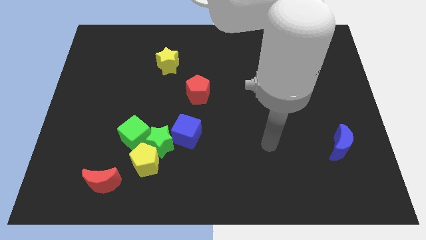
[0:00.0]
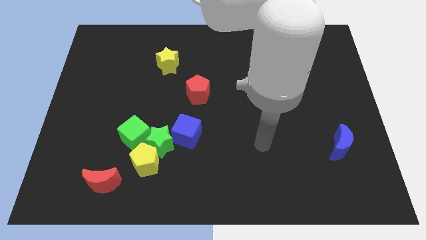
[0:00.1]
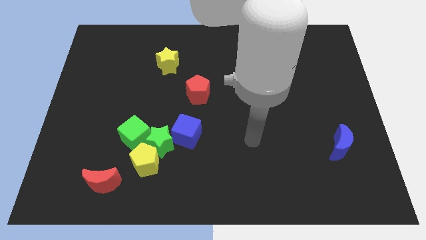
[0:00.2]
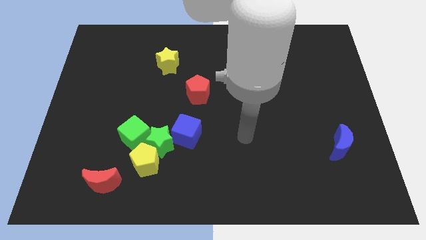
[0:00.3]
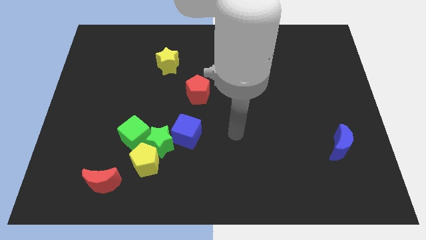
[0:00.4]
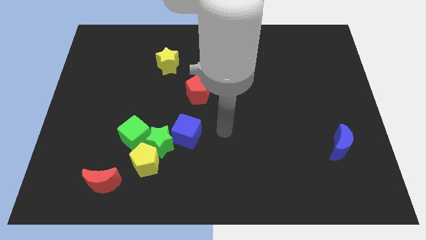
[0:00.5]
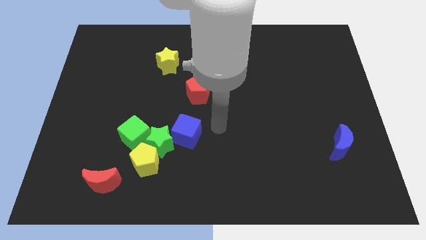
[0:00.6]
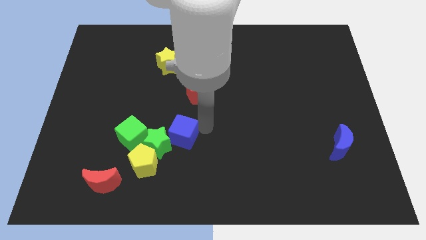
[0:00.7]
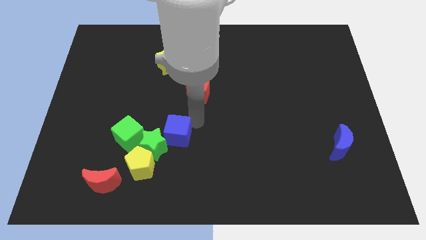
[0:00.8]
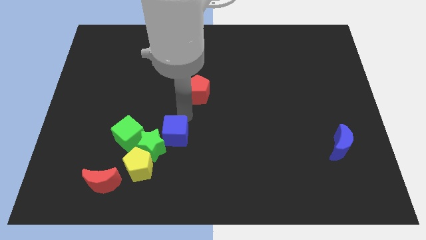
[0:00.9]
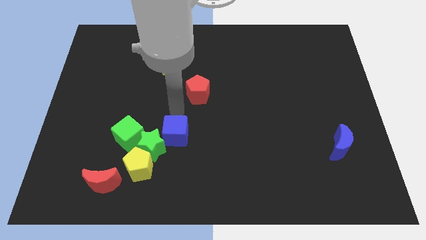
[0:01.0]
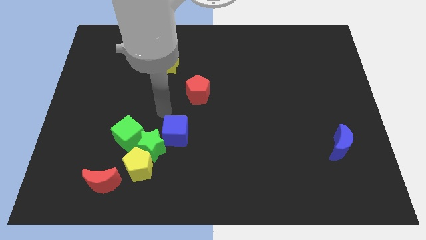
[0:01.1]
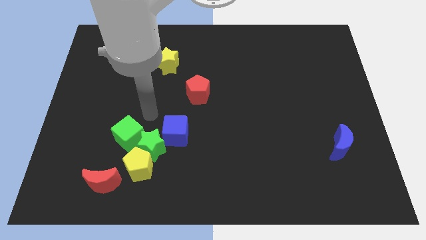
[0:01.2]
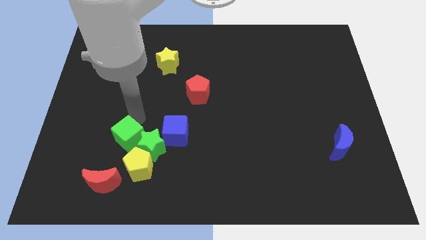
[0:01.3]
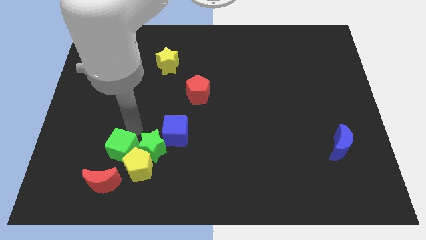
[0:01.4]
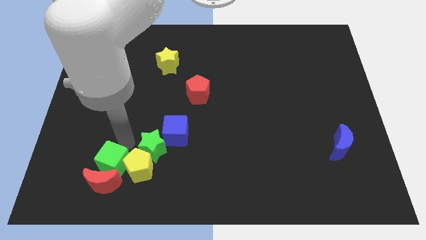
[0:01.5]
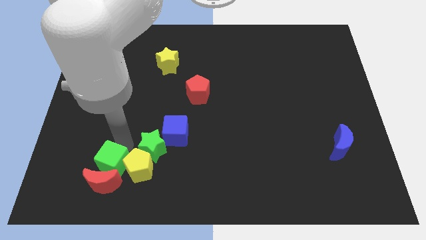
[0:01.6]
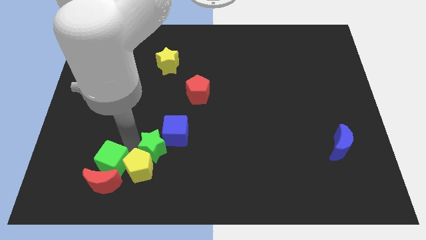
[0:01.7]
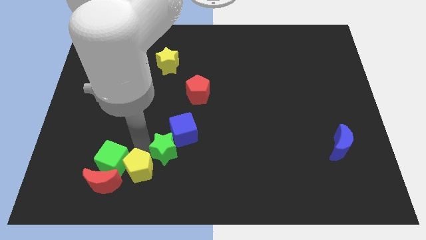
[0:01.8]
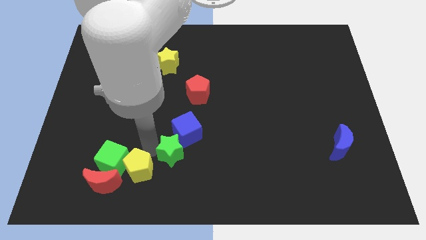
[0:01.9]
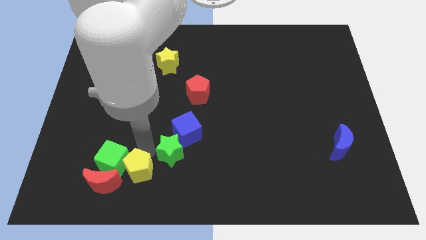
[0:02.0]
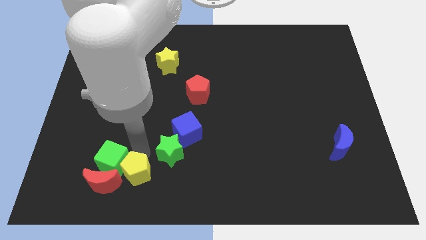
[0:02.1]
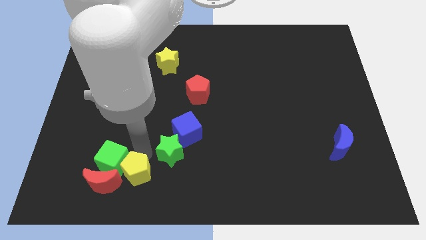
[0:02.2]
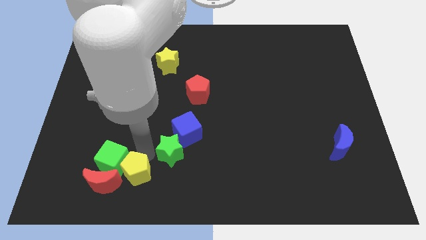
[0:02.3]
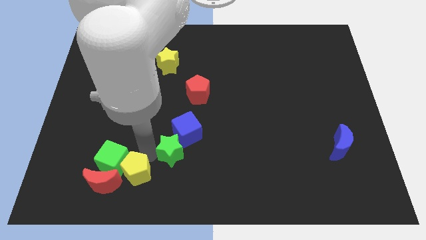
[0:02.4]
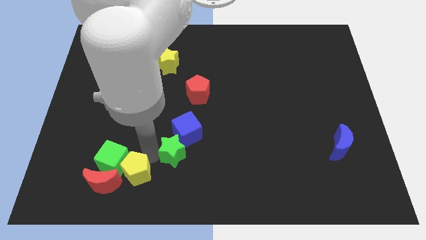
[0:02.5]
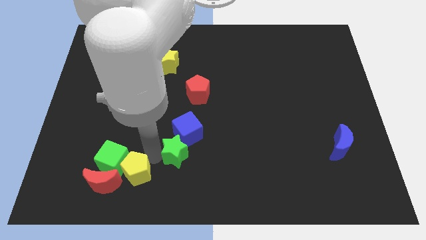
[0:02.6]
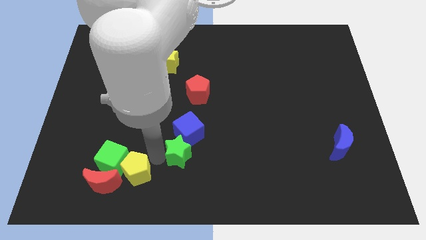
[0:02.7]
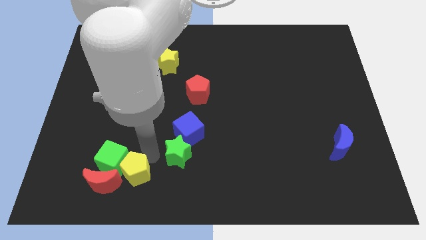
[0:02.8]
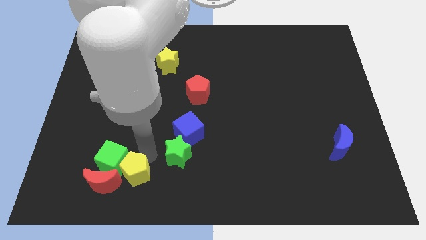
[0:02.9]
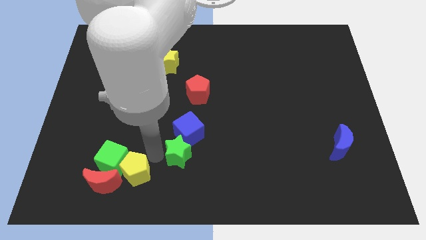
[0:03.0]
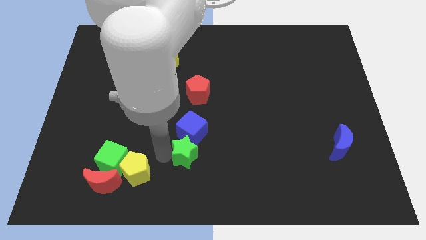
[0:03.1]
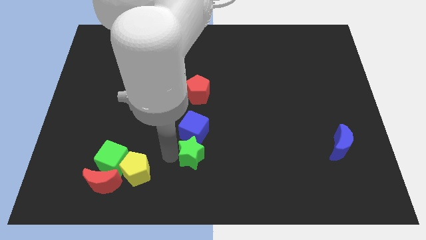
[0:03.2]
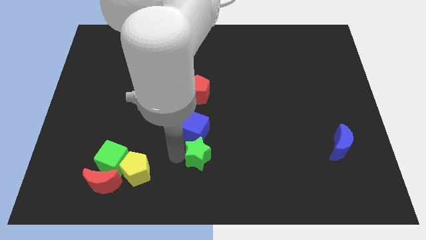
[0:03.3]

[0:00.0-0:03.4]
pull the green star apart from the yellow pentagon, blue cube, and green cube

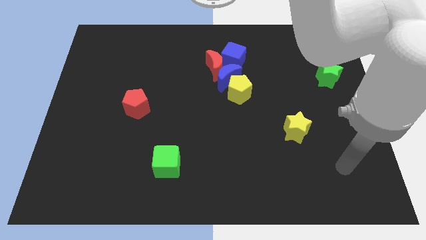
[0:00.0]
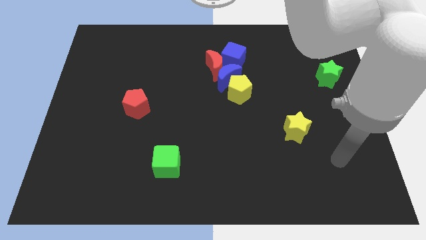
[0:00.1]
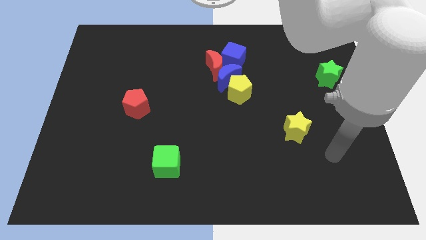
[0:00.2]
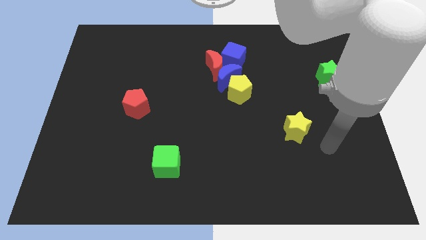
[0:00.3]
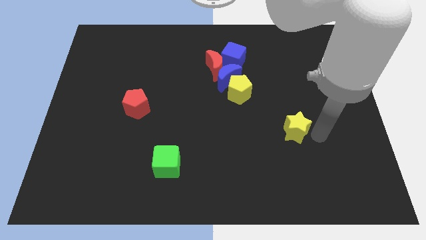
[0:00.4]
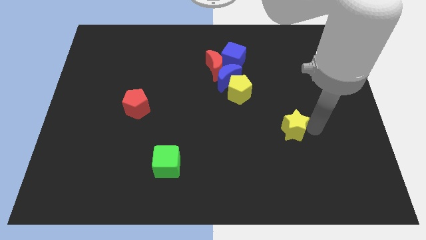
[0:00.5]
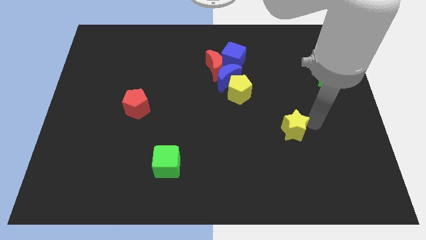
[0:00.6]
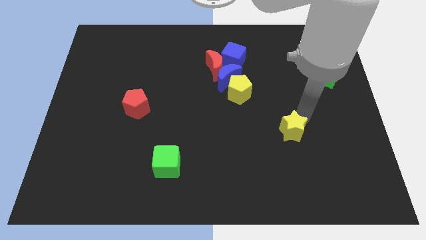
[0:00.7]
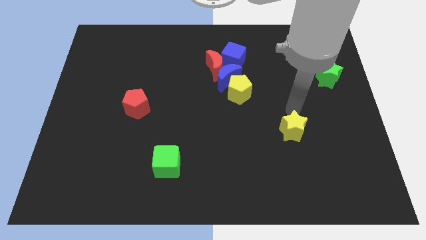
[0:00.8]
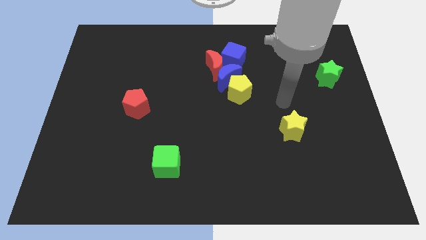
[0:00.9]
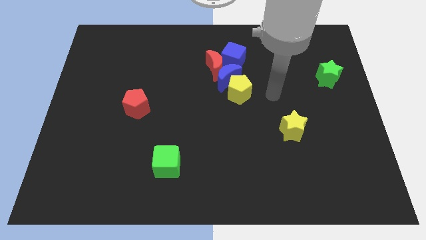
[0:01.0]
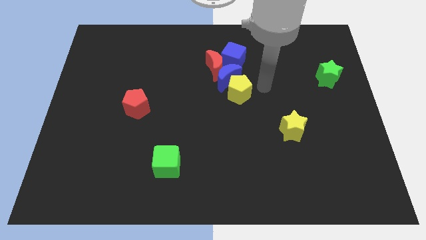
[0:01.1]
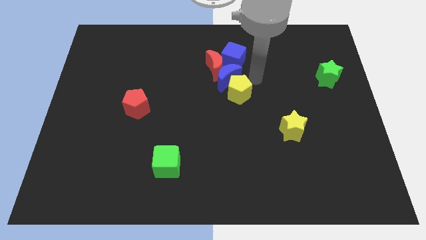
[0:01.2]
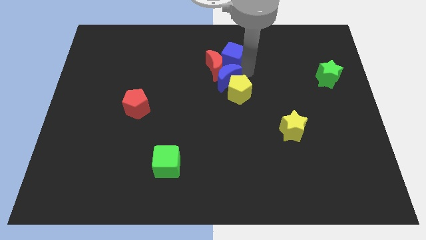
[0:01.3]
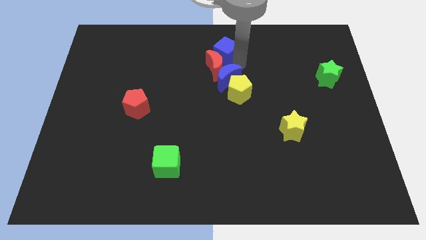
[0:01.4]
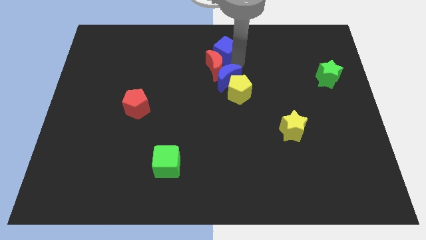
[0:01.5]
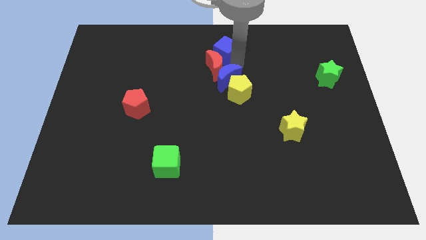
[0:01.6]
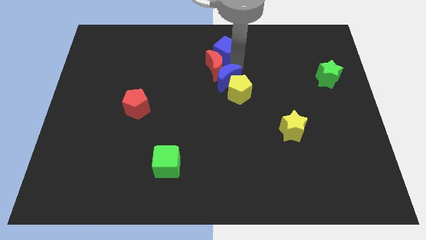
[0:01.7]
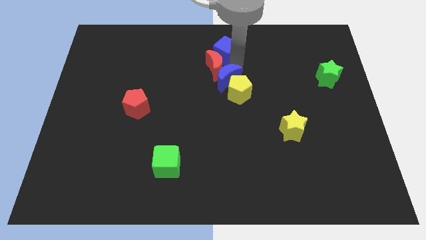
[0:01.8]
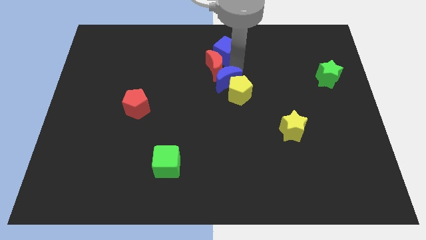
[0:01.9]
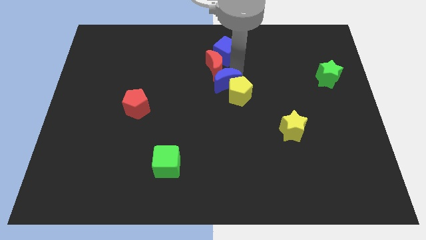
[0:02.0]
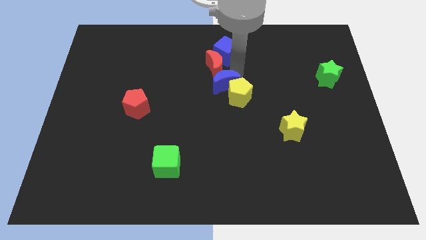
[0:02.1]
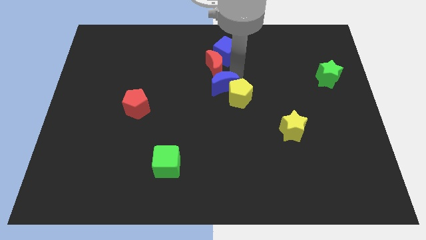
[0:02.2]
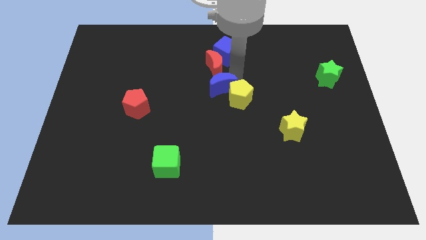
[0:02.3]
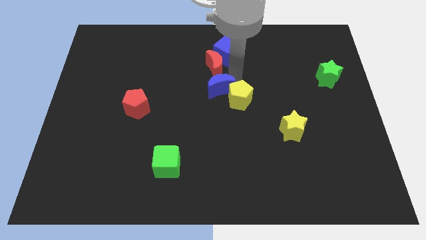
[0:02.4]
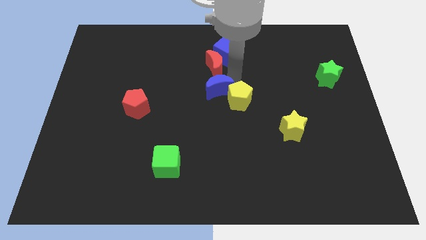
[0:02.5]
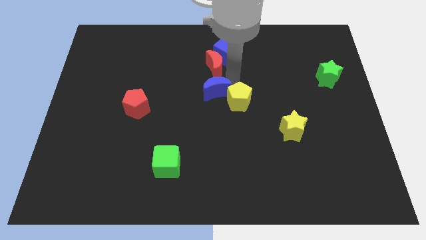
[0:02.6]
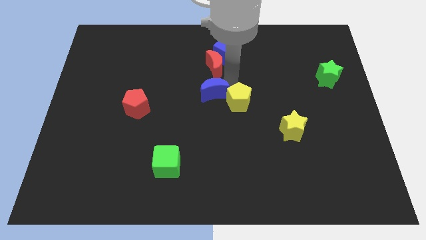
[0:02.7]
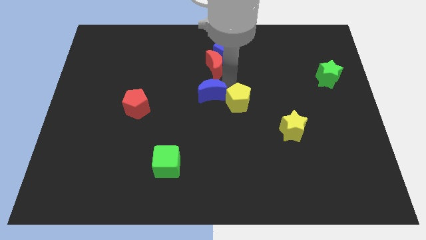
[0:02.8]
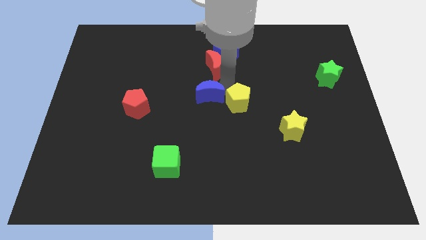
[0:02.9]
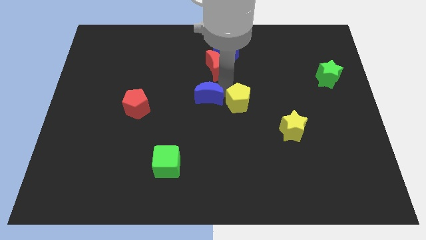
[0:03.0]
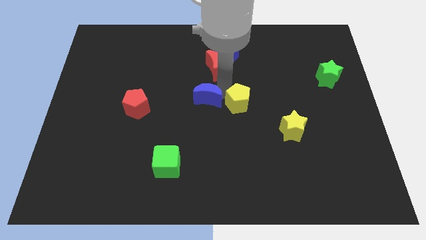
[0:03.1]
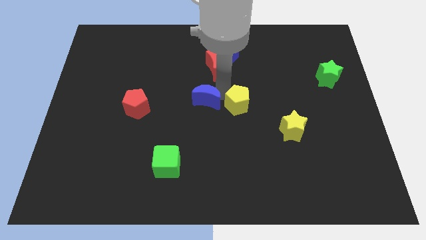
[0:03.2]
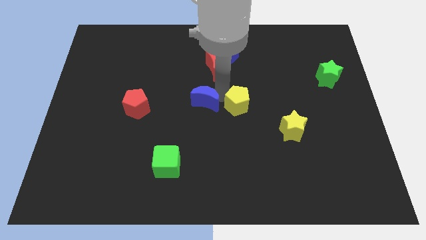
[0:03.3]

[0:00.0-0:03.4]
pull the blue moon apart from the group

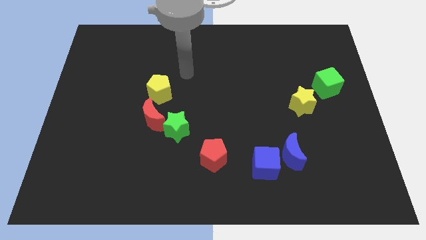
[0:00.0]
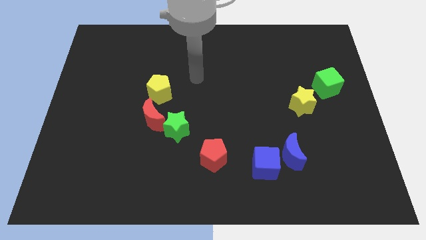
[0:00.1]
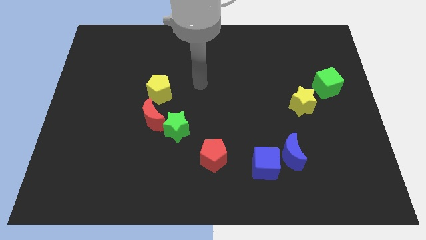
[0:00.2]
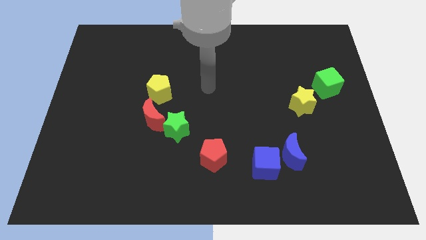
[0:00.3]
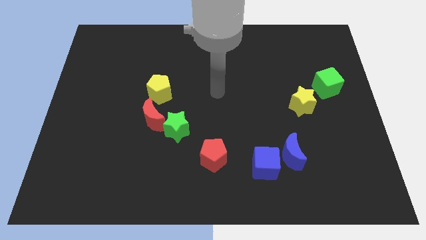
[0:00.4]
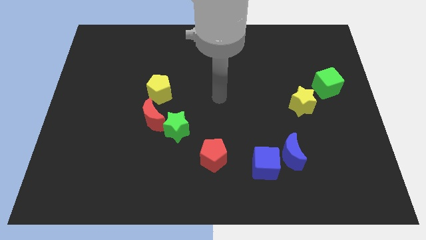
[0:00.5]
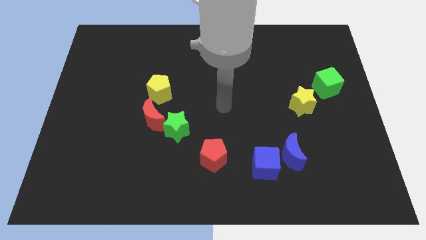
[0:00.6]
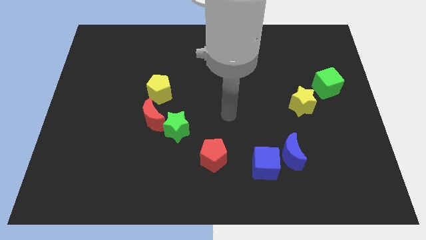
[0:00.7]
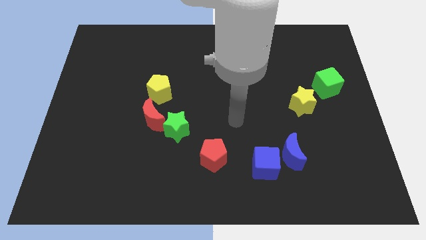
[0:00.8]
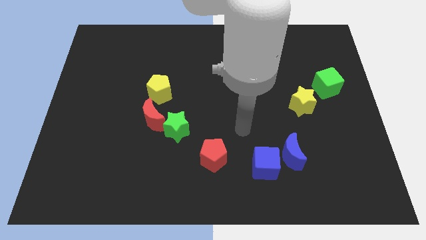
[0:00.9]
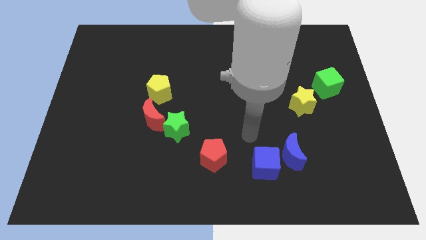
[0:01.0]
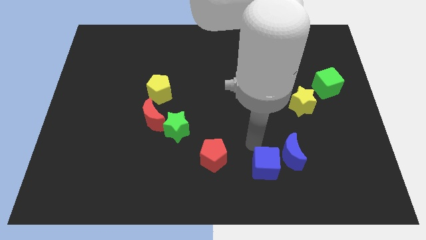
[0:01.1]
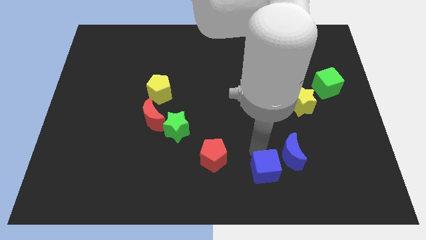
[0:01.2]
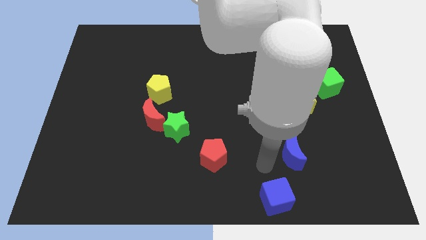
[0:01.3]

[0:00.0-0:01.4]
separate the blue moon from the blue cube

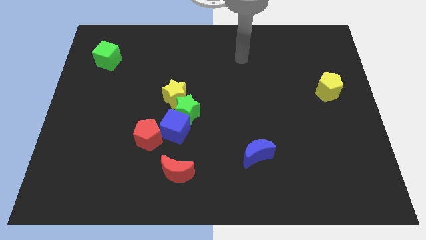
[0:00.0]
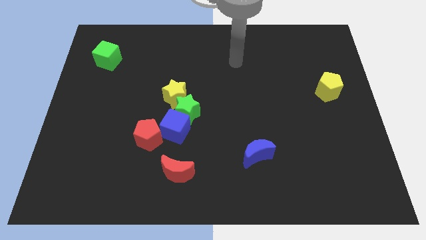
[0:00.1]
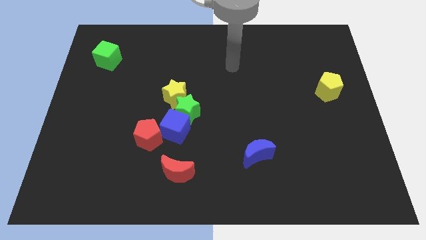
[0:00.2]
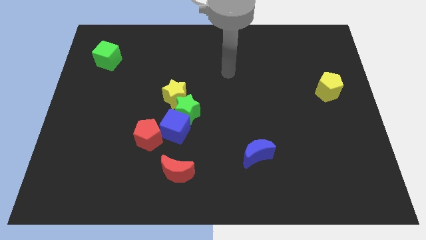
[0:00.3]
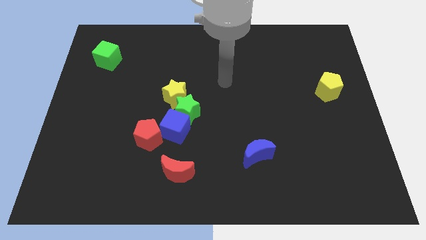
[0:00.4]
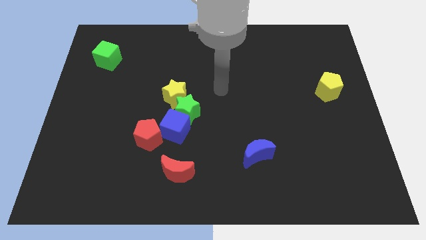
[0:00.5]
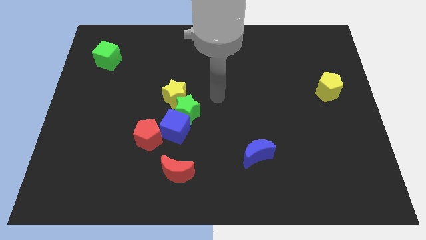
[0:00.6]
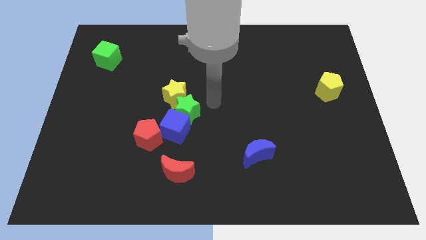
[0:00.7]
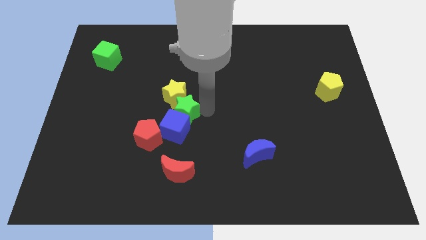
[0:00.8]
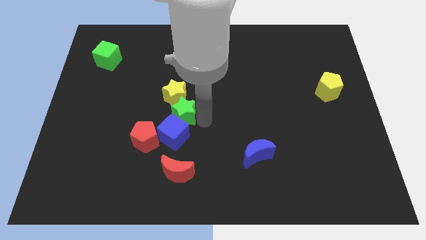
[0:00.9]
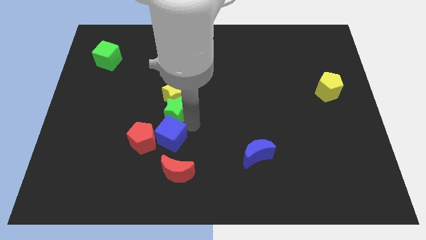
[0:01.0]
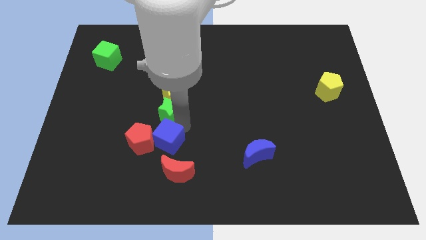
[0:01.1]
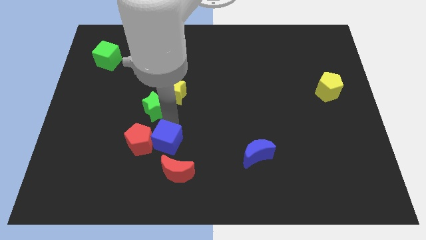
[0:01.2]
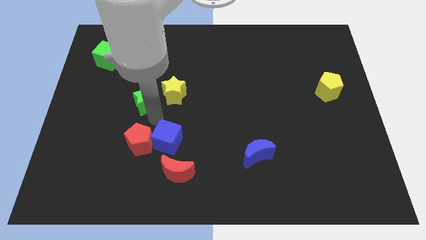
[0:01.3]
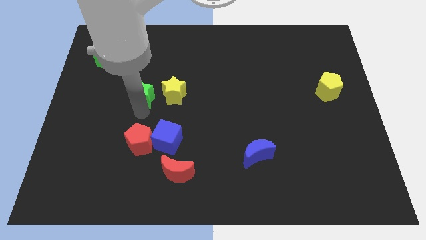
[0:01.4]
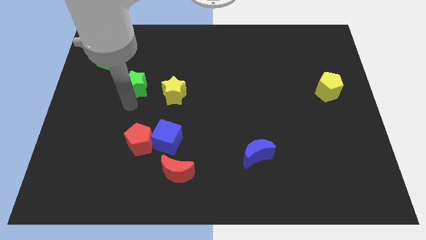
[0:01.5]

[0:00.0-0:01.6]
separate the green star from the yellow star and blue cube
